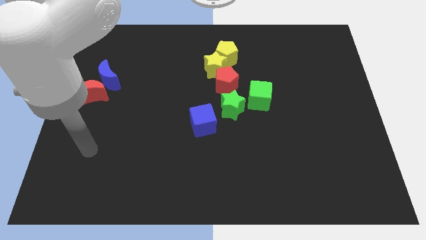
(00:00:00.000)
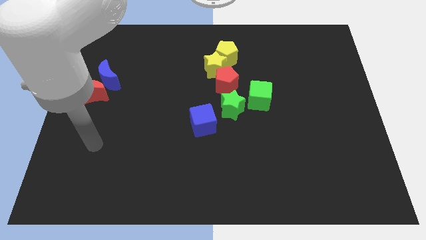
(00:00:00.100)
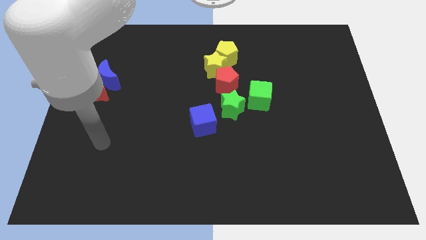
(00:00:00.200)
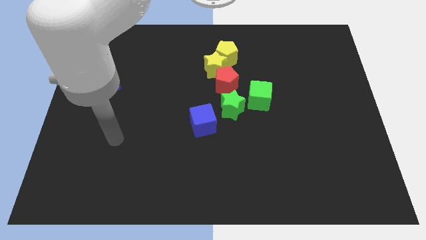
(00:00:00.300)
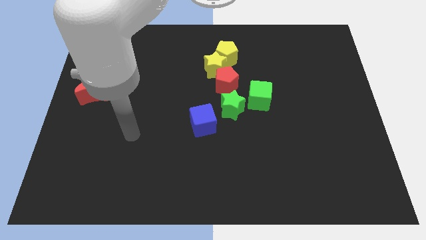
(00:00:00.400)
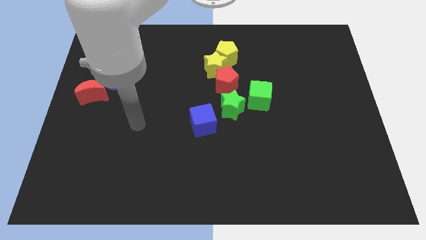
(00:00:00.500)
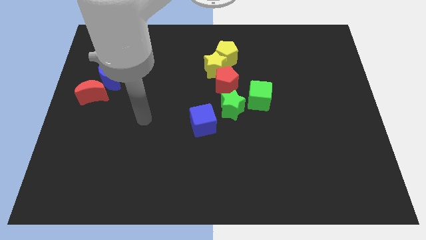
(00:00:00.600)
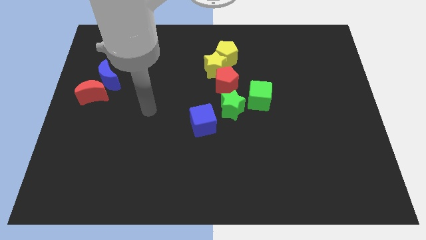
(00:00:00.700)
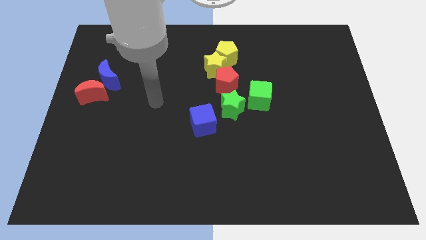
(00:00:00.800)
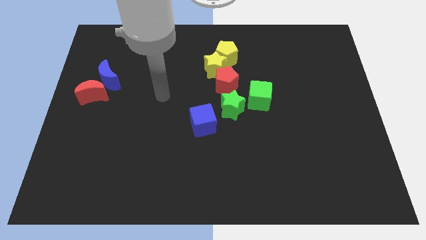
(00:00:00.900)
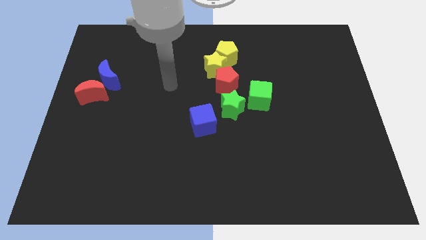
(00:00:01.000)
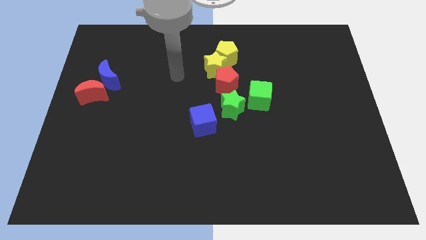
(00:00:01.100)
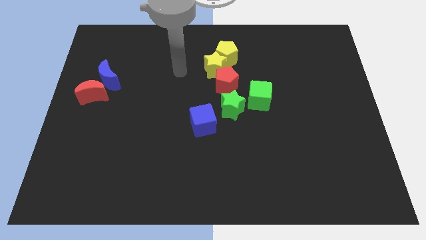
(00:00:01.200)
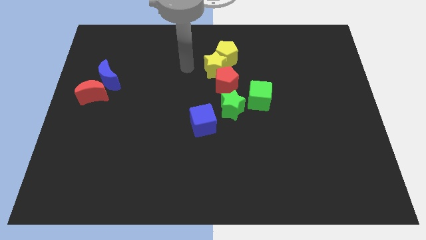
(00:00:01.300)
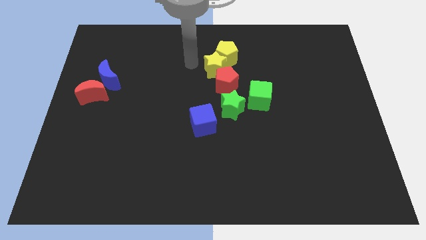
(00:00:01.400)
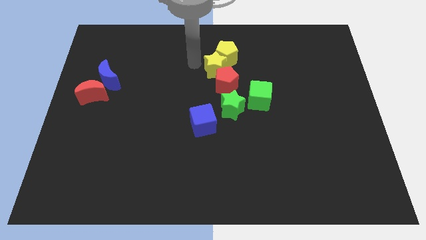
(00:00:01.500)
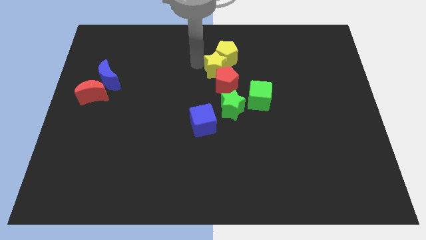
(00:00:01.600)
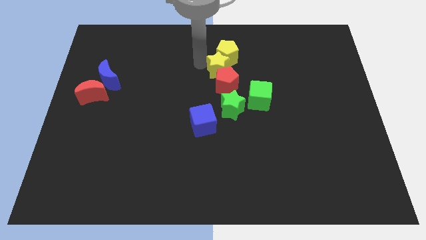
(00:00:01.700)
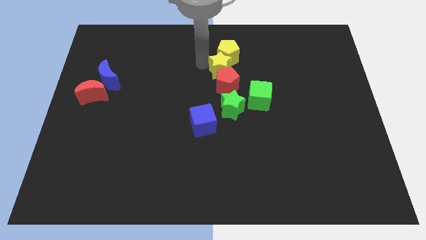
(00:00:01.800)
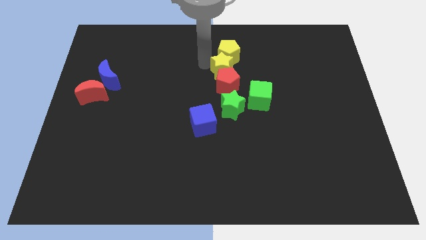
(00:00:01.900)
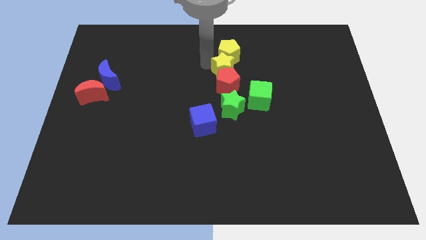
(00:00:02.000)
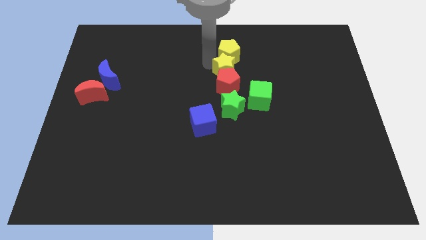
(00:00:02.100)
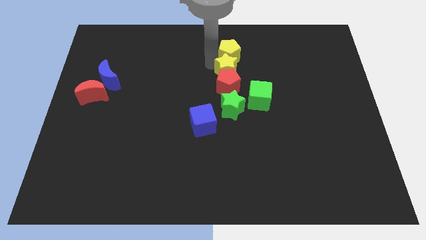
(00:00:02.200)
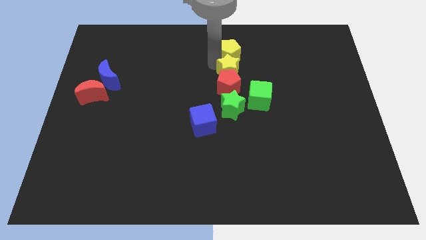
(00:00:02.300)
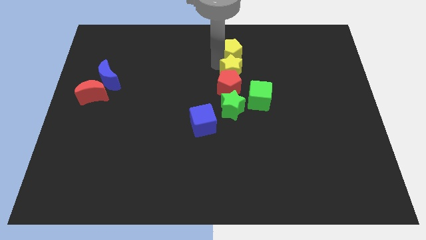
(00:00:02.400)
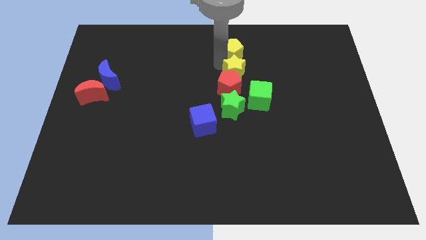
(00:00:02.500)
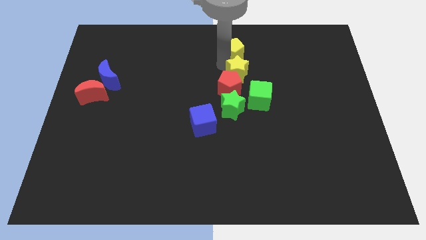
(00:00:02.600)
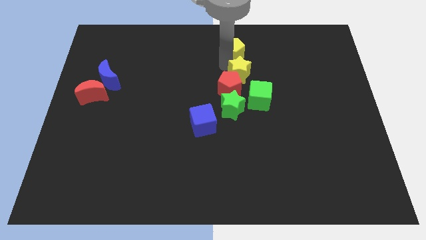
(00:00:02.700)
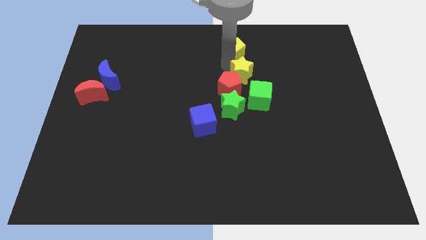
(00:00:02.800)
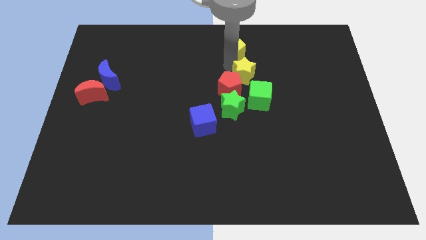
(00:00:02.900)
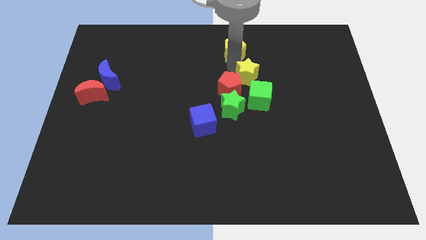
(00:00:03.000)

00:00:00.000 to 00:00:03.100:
slide the yellow star a little bit downwards and to the right

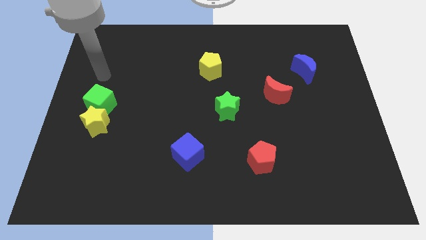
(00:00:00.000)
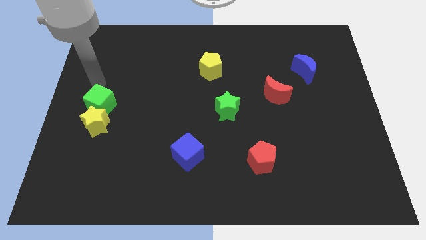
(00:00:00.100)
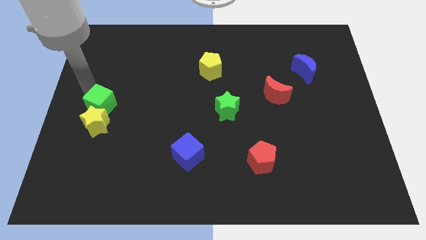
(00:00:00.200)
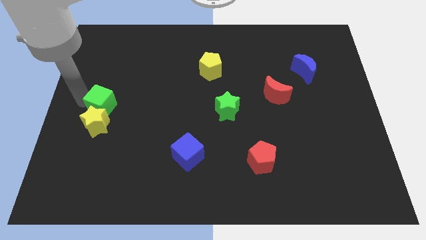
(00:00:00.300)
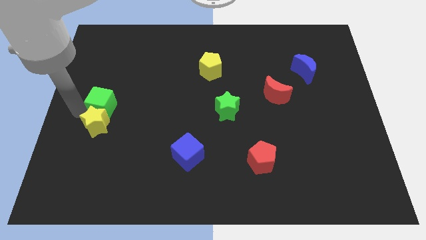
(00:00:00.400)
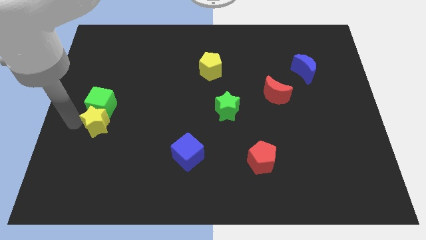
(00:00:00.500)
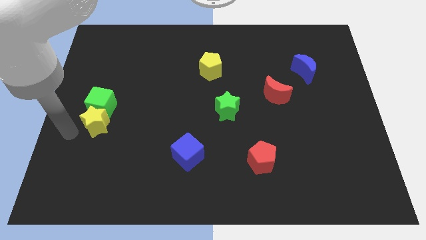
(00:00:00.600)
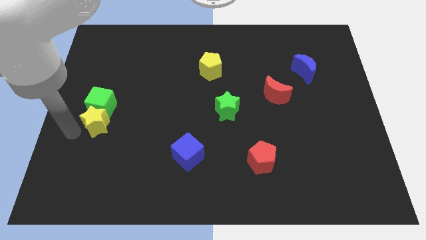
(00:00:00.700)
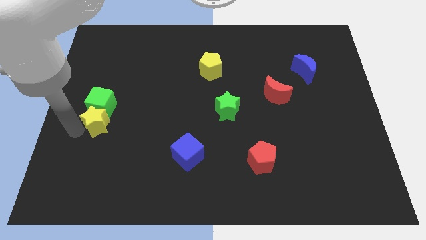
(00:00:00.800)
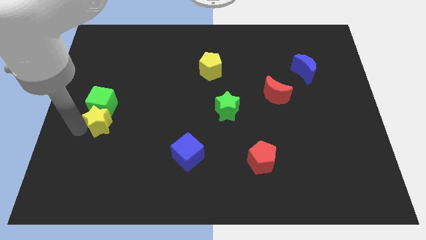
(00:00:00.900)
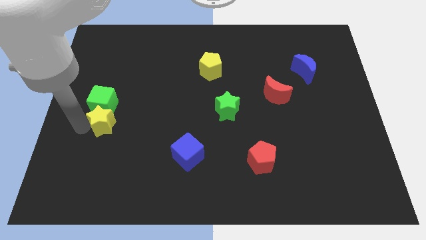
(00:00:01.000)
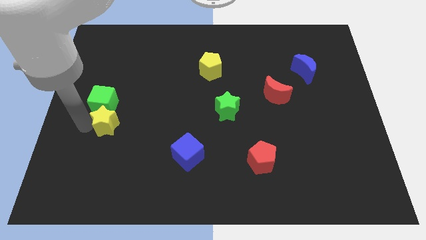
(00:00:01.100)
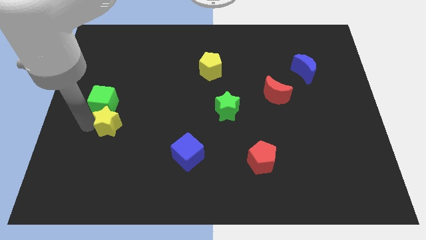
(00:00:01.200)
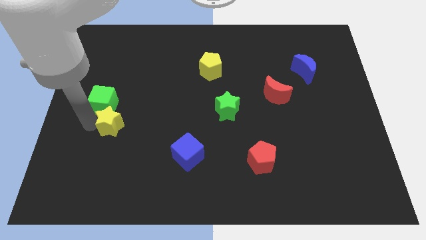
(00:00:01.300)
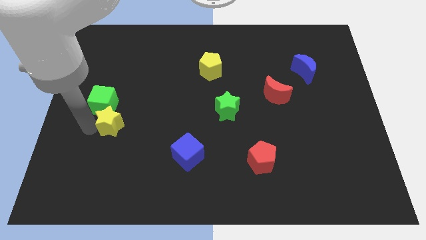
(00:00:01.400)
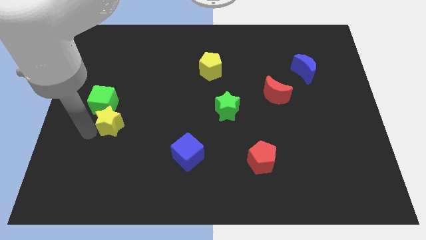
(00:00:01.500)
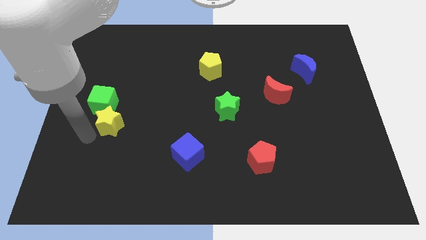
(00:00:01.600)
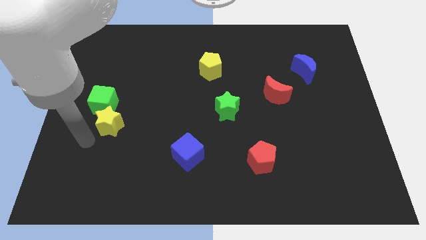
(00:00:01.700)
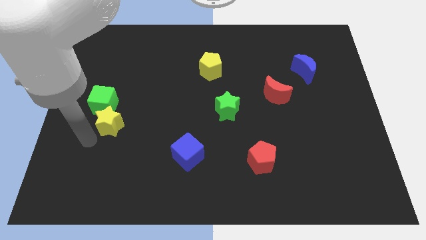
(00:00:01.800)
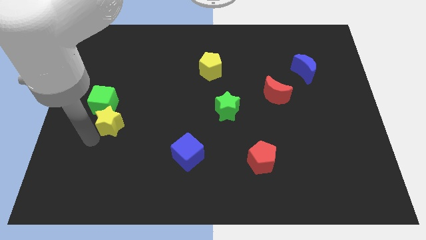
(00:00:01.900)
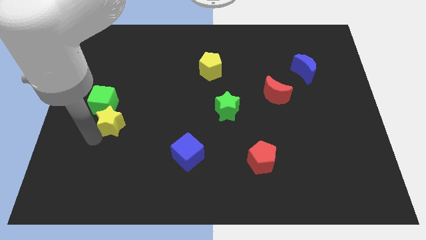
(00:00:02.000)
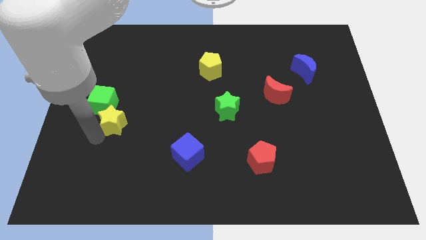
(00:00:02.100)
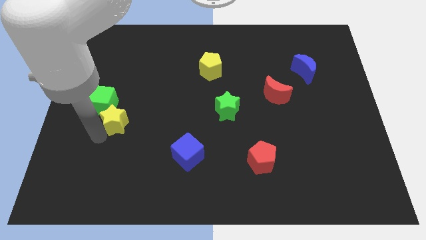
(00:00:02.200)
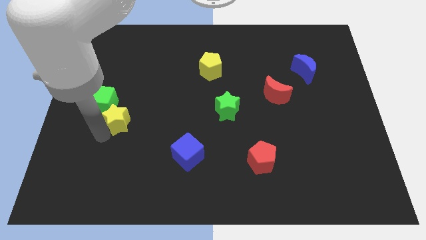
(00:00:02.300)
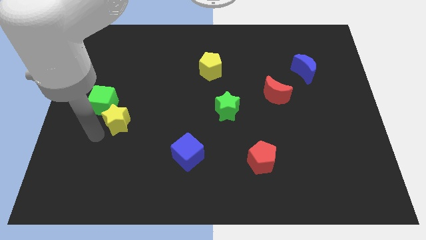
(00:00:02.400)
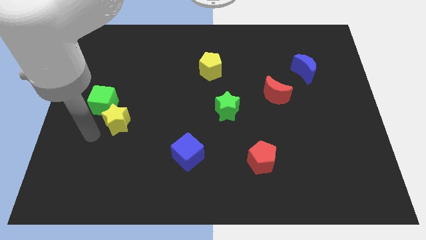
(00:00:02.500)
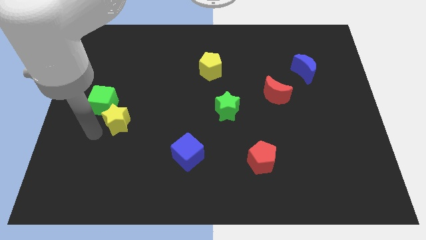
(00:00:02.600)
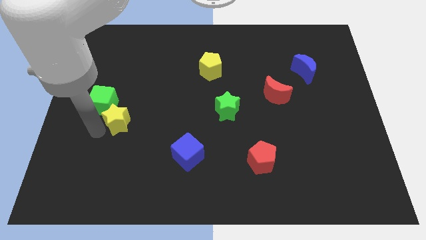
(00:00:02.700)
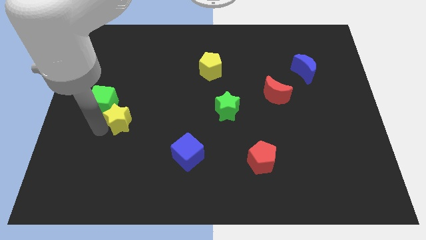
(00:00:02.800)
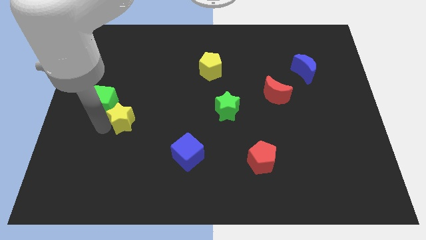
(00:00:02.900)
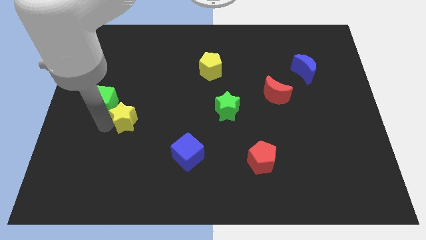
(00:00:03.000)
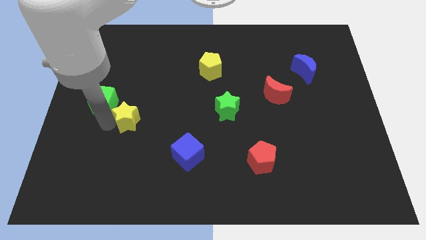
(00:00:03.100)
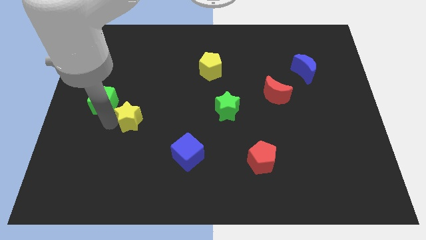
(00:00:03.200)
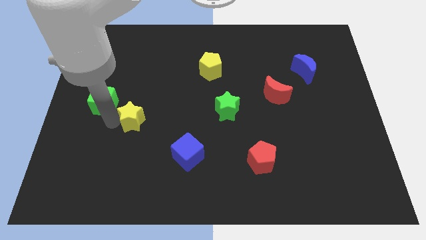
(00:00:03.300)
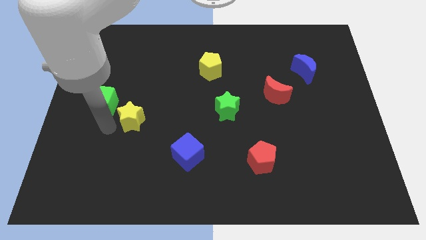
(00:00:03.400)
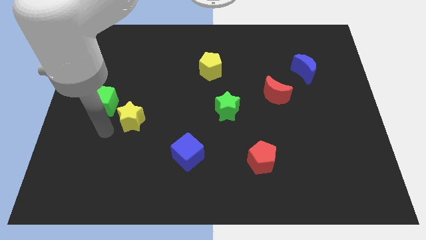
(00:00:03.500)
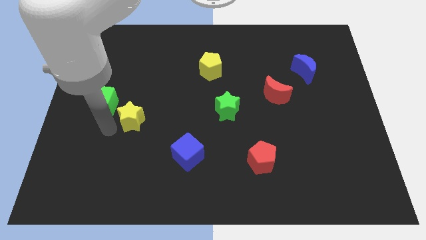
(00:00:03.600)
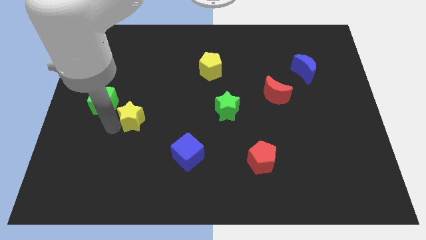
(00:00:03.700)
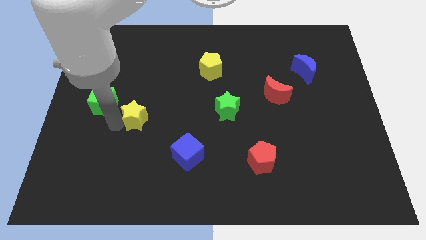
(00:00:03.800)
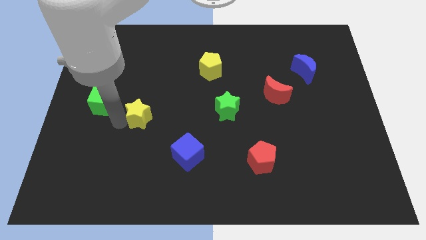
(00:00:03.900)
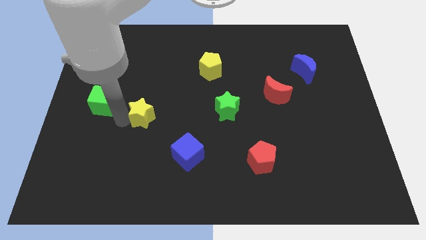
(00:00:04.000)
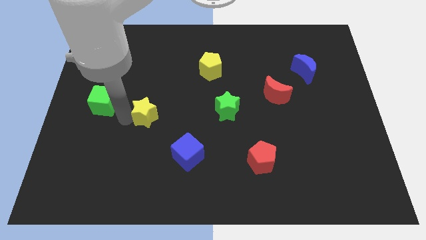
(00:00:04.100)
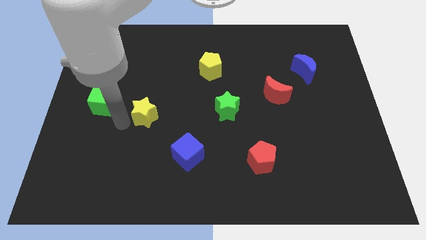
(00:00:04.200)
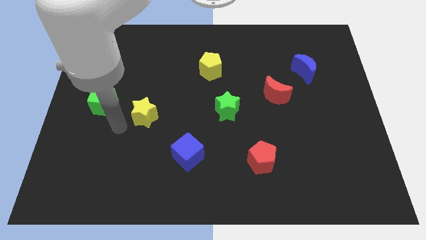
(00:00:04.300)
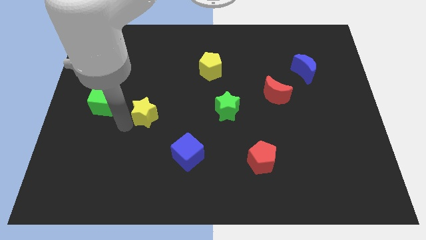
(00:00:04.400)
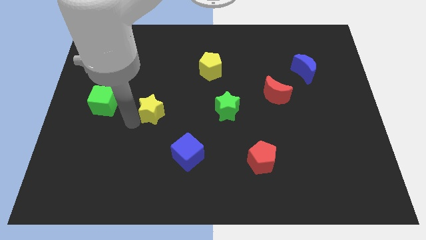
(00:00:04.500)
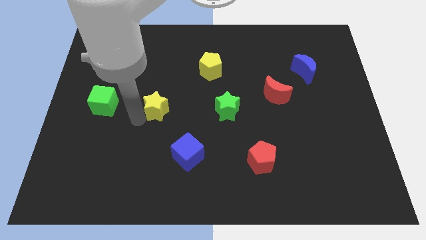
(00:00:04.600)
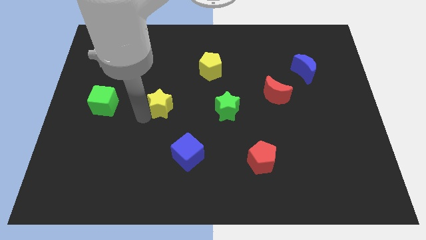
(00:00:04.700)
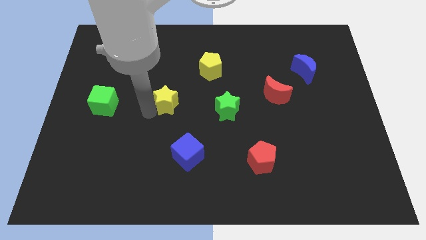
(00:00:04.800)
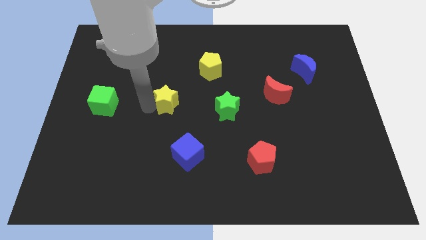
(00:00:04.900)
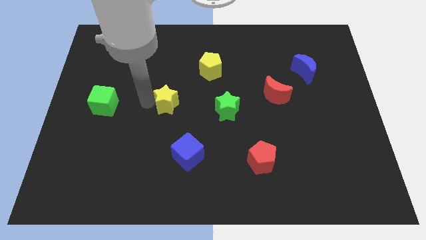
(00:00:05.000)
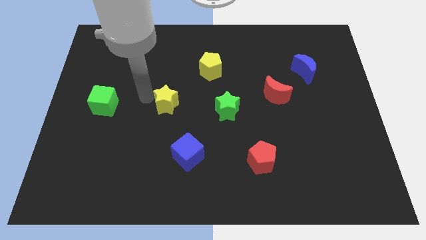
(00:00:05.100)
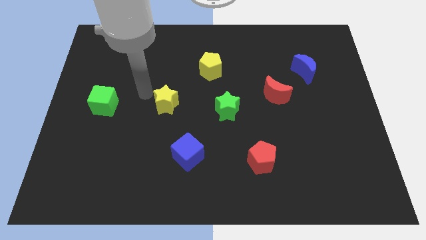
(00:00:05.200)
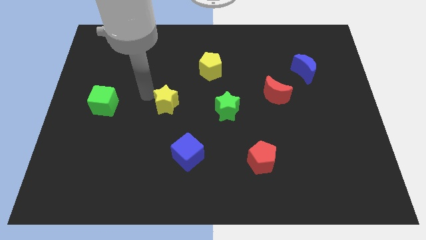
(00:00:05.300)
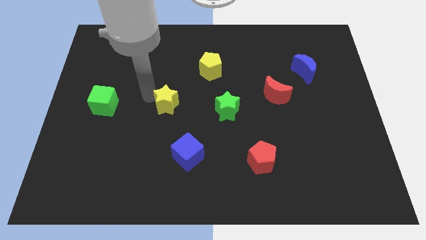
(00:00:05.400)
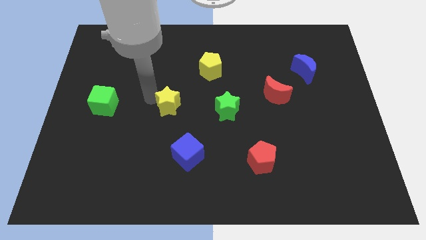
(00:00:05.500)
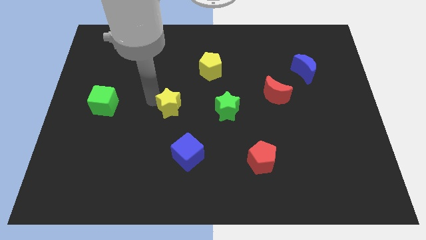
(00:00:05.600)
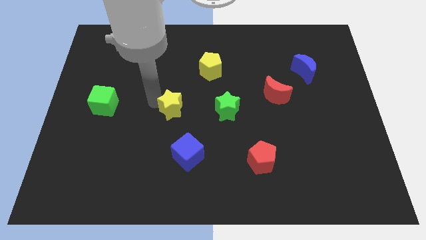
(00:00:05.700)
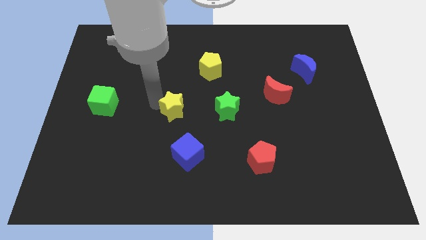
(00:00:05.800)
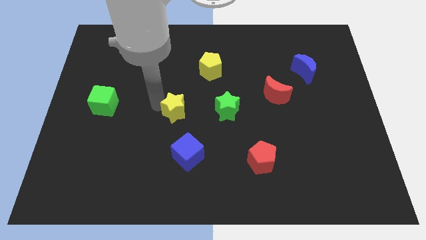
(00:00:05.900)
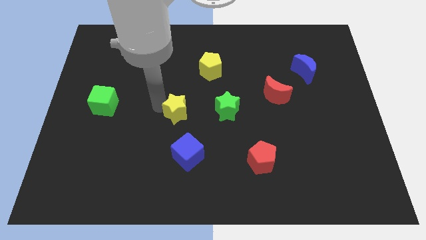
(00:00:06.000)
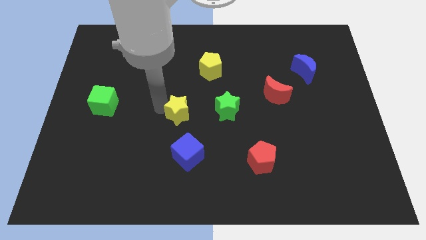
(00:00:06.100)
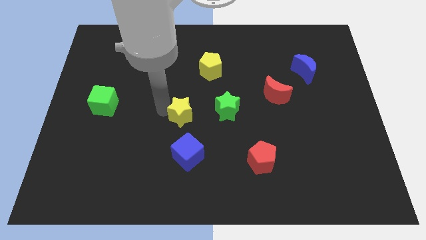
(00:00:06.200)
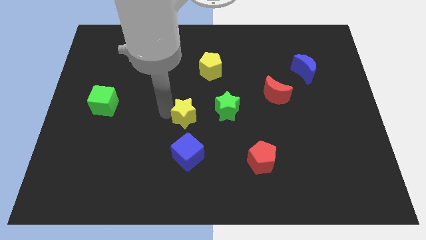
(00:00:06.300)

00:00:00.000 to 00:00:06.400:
move the yellow star right
